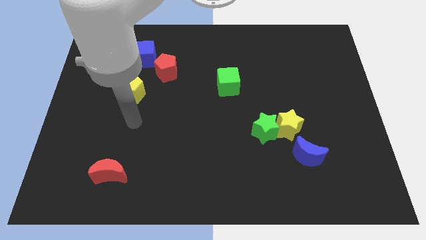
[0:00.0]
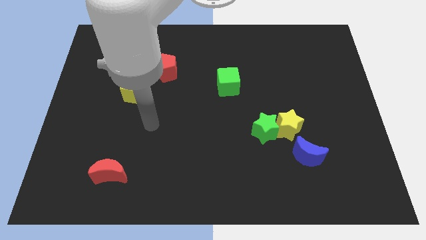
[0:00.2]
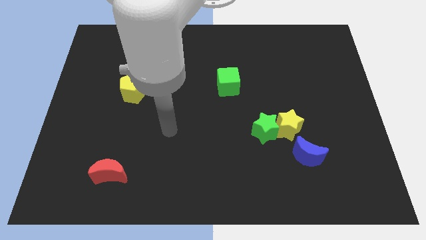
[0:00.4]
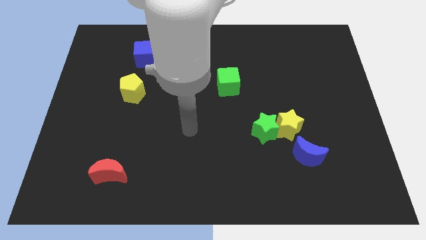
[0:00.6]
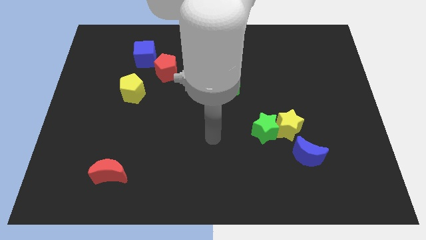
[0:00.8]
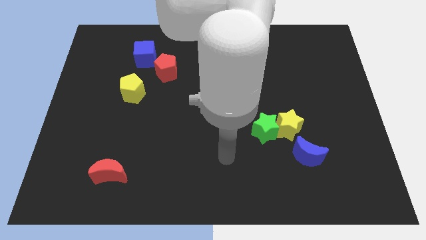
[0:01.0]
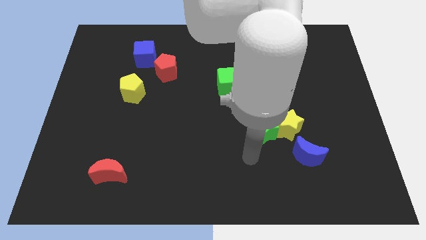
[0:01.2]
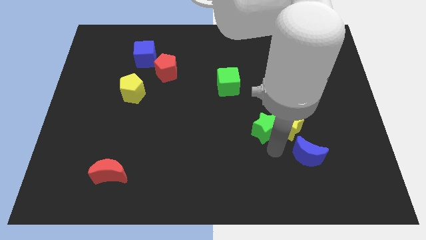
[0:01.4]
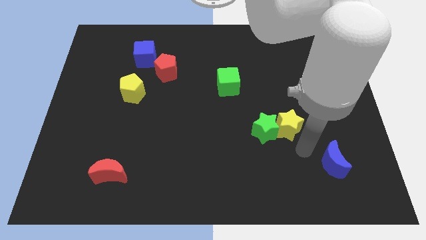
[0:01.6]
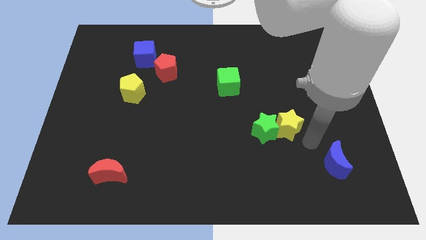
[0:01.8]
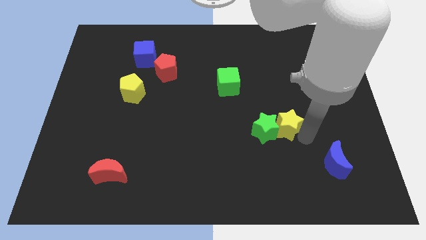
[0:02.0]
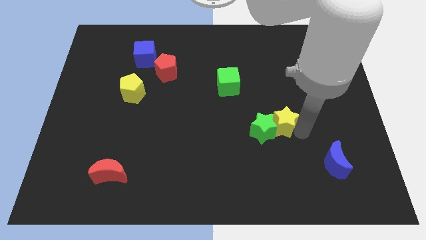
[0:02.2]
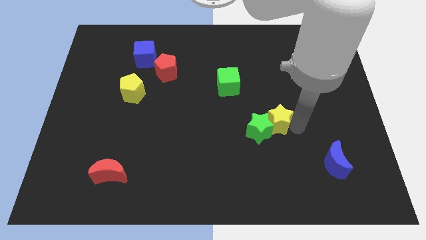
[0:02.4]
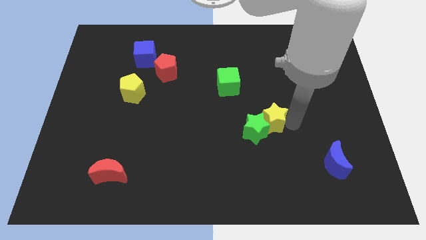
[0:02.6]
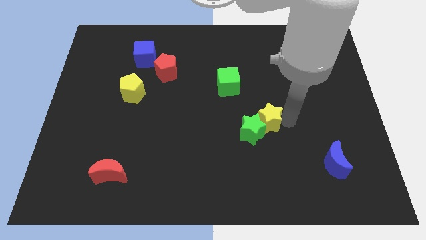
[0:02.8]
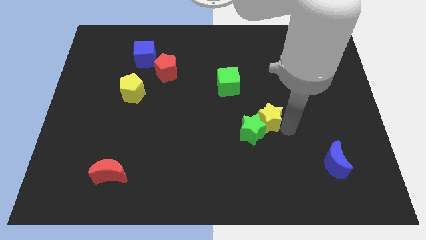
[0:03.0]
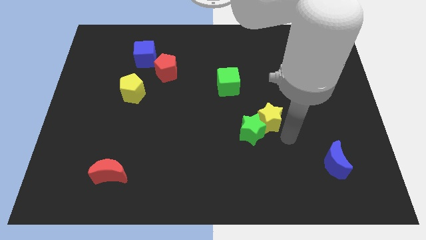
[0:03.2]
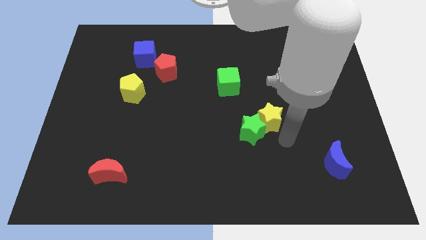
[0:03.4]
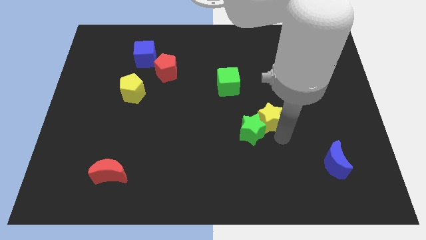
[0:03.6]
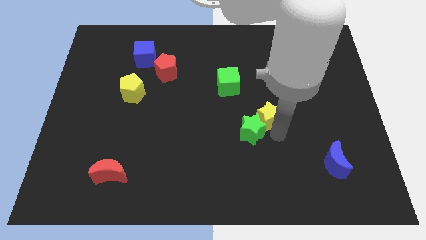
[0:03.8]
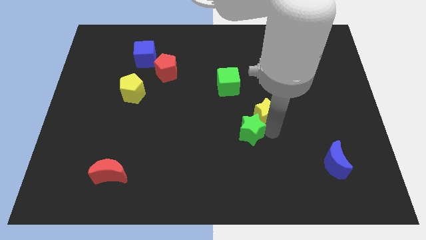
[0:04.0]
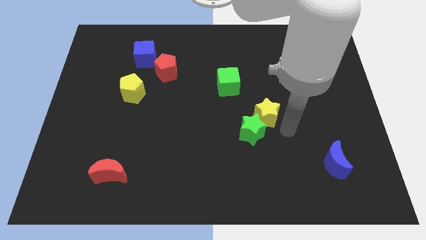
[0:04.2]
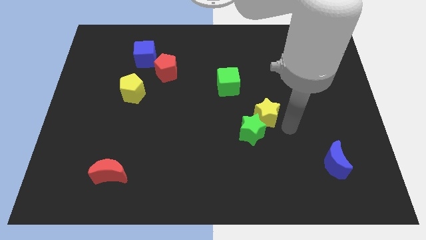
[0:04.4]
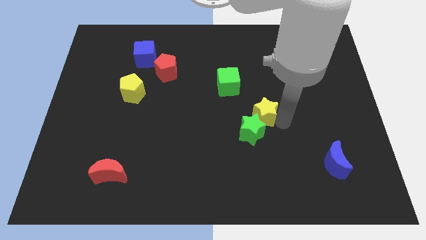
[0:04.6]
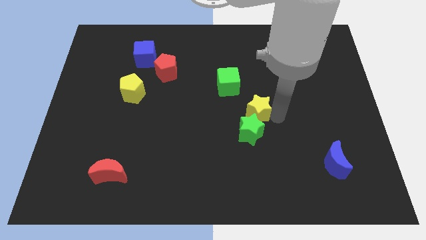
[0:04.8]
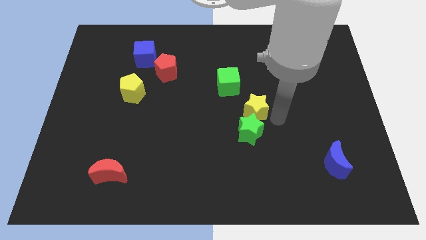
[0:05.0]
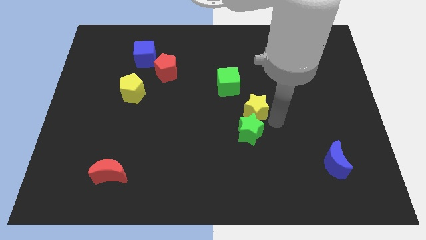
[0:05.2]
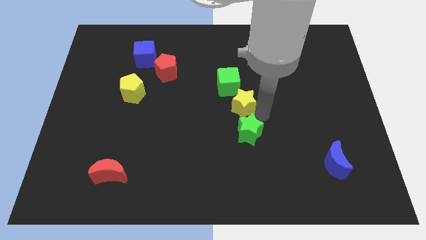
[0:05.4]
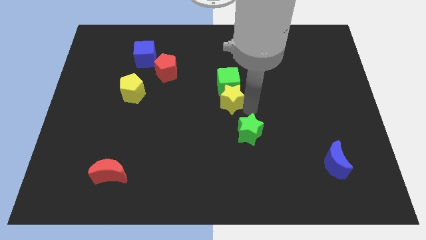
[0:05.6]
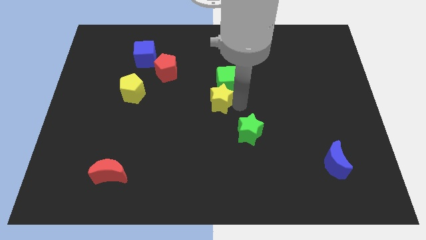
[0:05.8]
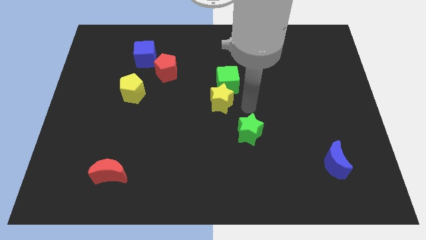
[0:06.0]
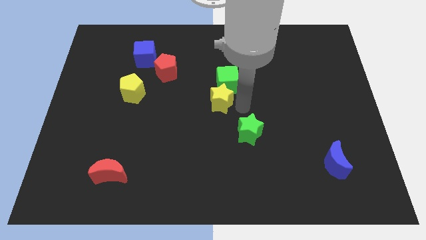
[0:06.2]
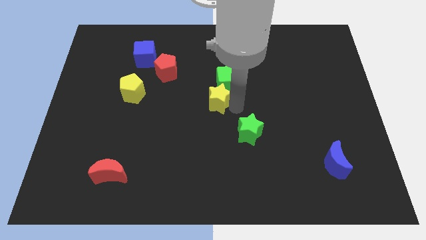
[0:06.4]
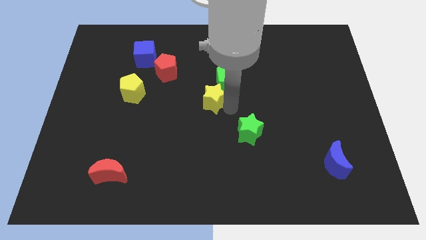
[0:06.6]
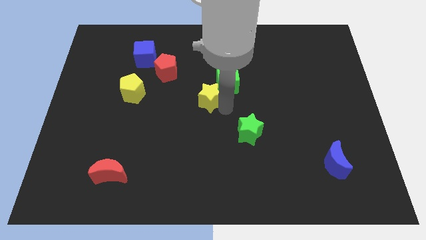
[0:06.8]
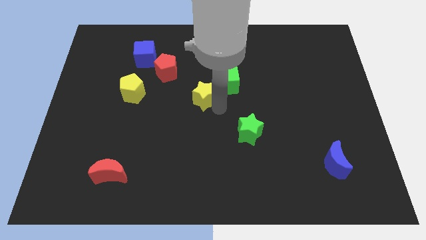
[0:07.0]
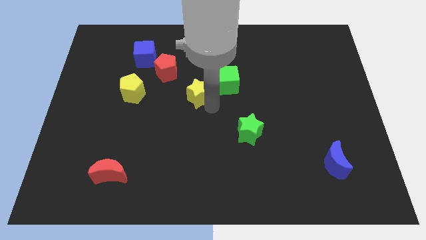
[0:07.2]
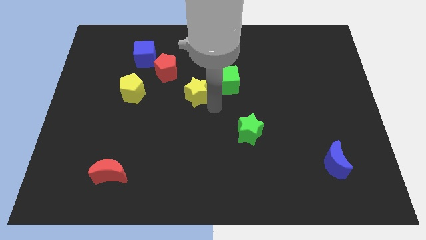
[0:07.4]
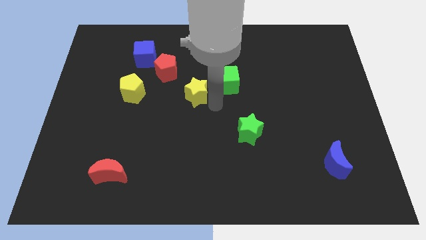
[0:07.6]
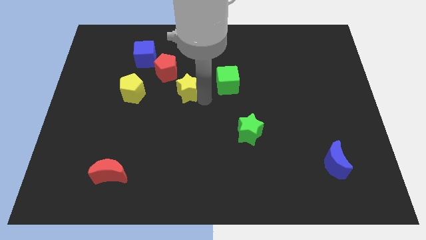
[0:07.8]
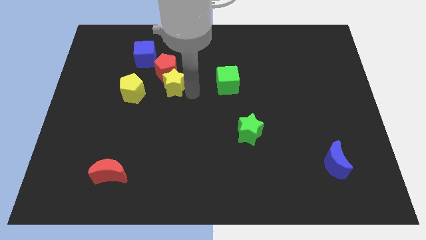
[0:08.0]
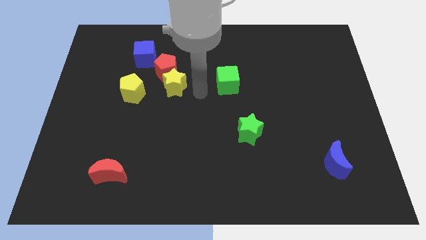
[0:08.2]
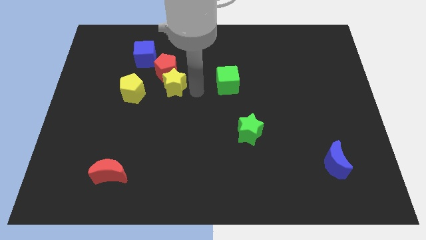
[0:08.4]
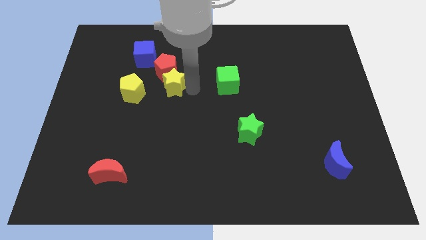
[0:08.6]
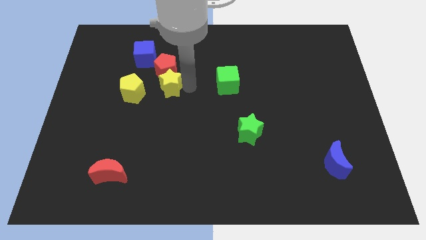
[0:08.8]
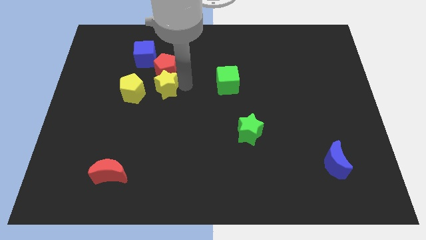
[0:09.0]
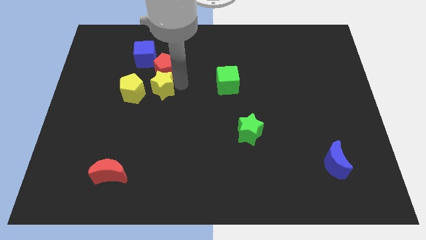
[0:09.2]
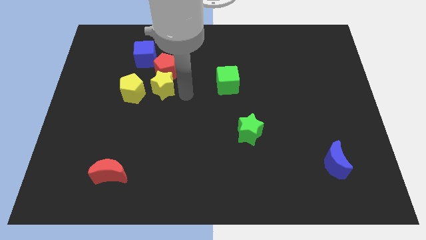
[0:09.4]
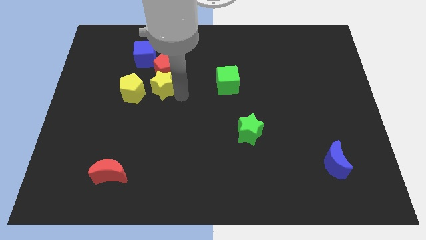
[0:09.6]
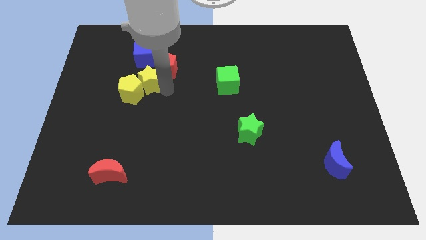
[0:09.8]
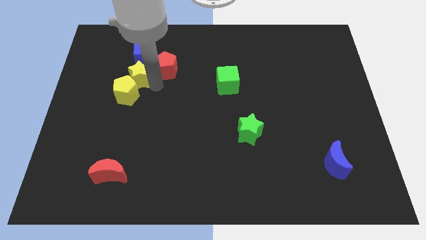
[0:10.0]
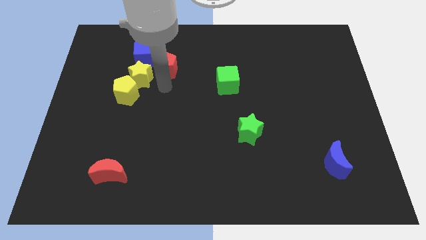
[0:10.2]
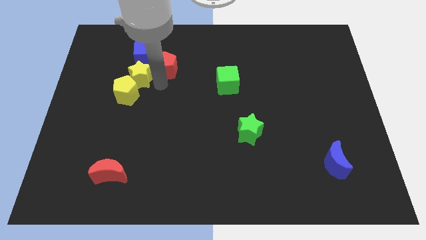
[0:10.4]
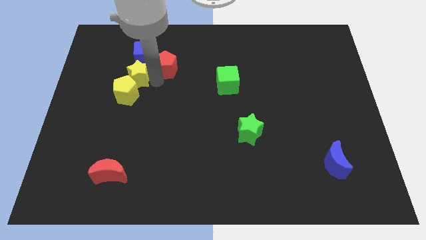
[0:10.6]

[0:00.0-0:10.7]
move the yellow star to the bottom left side of the blue cube

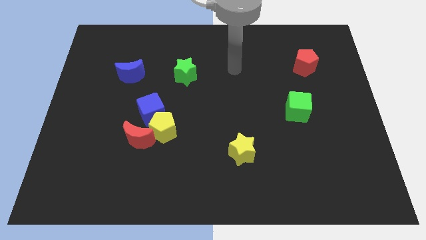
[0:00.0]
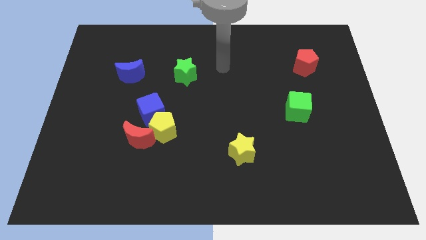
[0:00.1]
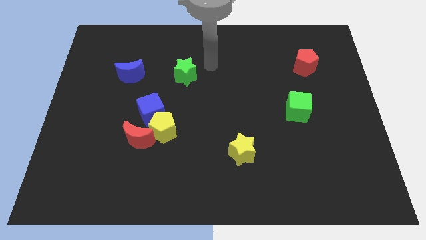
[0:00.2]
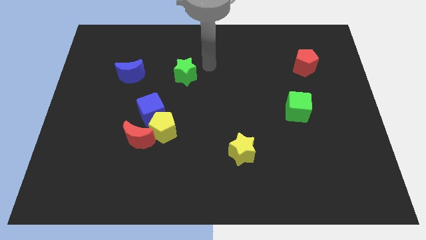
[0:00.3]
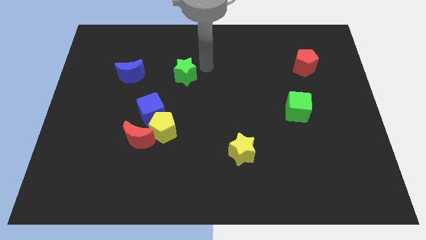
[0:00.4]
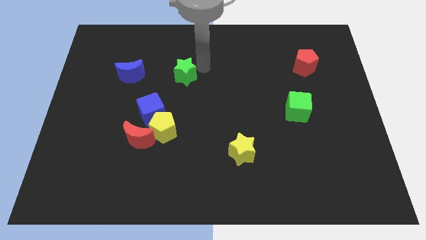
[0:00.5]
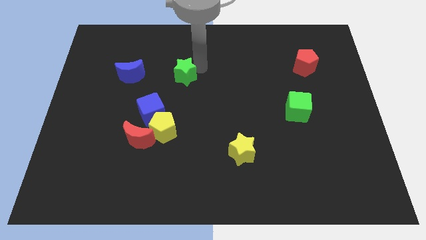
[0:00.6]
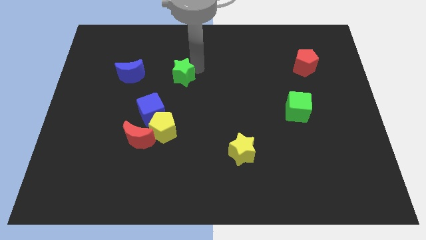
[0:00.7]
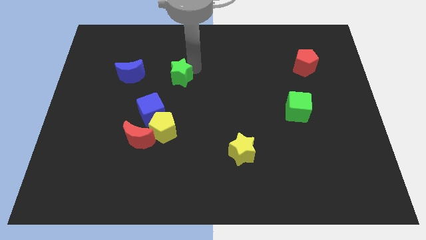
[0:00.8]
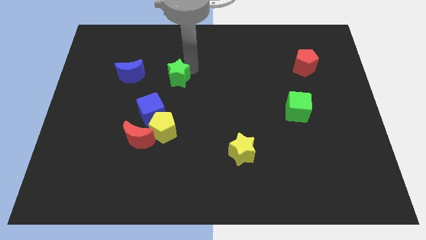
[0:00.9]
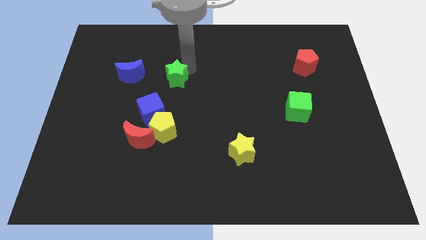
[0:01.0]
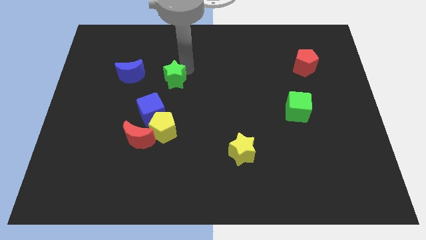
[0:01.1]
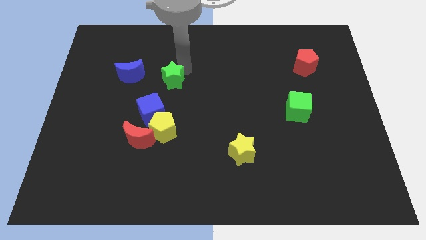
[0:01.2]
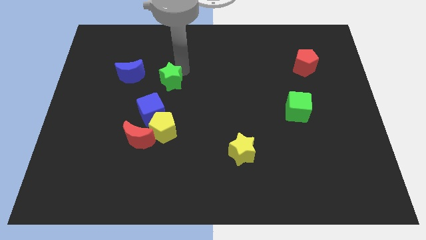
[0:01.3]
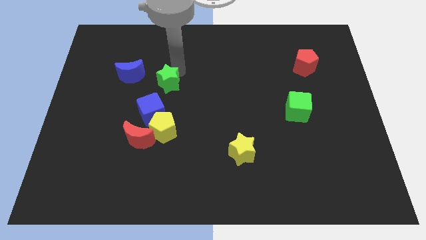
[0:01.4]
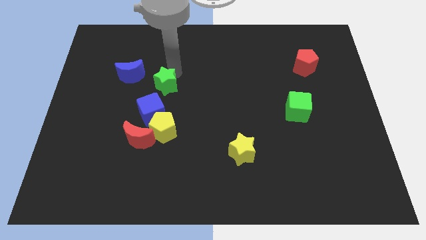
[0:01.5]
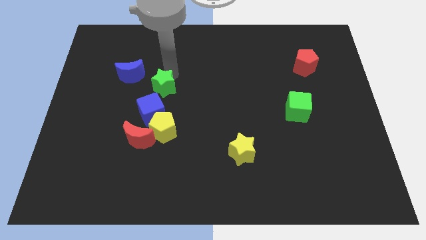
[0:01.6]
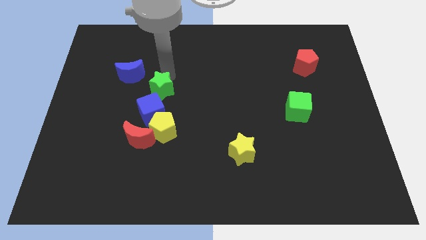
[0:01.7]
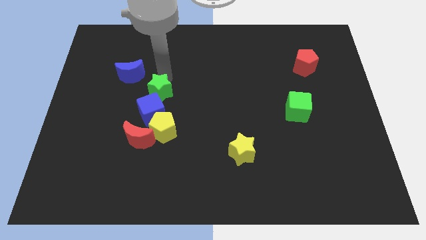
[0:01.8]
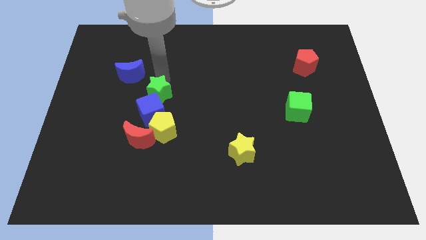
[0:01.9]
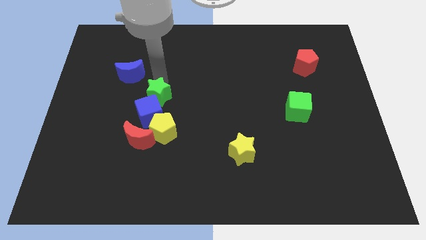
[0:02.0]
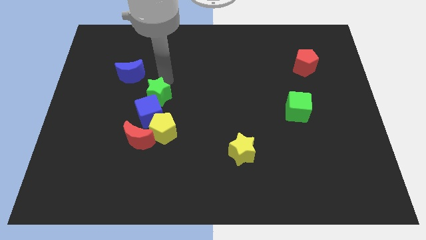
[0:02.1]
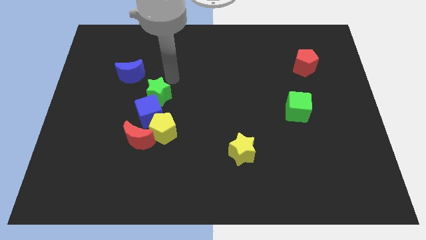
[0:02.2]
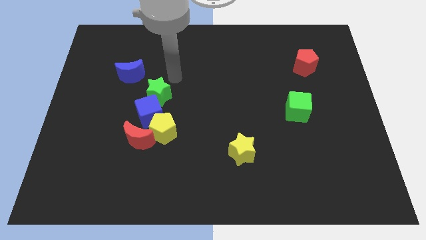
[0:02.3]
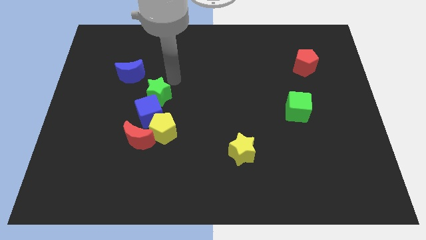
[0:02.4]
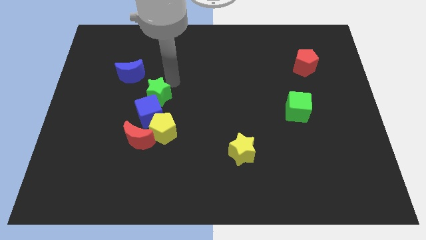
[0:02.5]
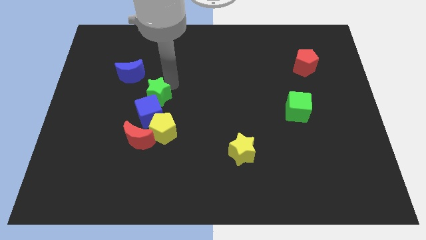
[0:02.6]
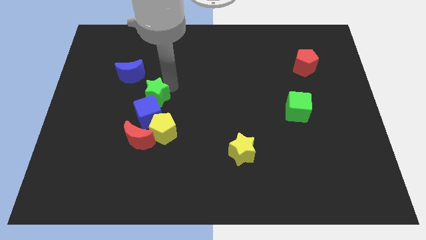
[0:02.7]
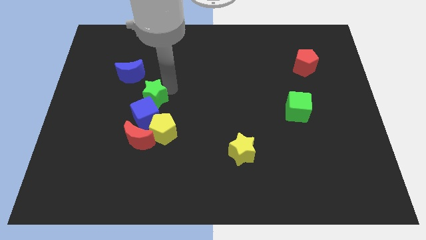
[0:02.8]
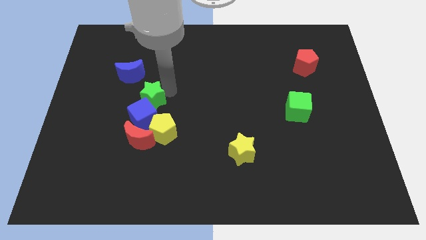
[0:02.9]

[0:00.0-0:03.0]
move the green star diagonally up and to the left of the yellow pentagon
